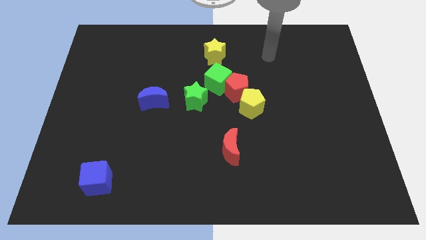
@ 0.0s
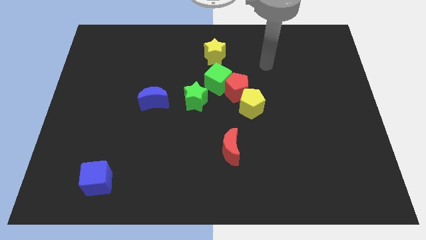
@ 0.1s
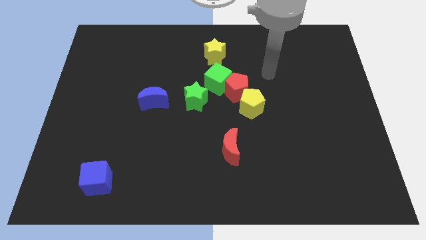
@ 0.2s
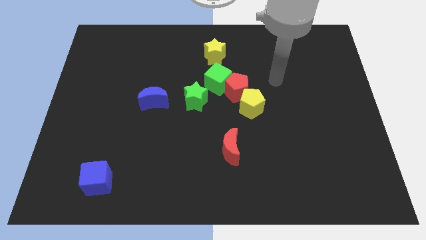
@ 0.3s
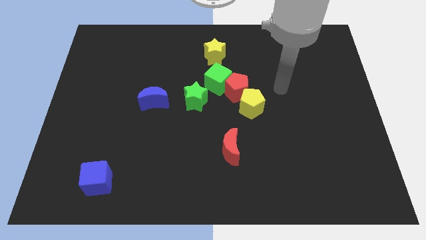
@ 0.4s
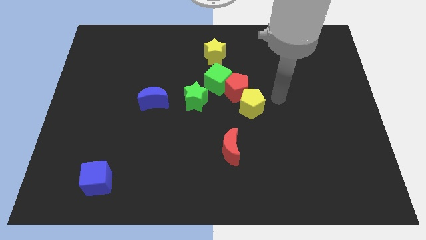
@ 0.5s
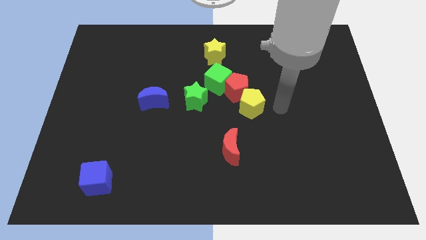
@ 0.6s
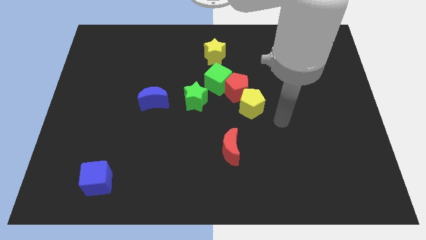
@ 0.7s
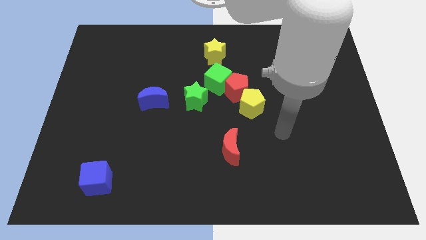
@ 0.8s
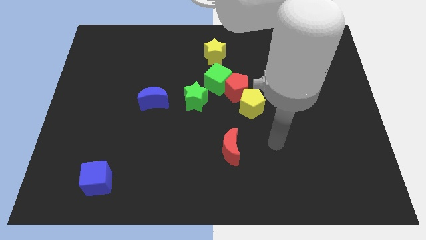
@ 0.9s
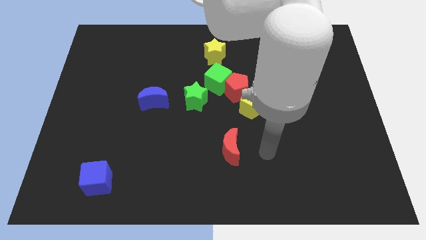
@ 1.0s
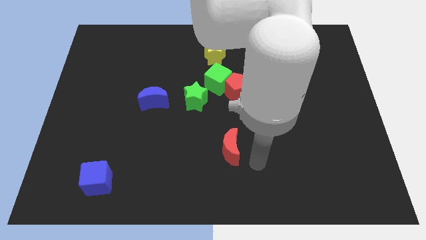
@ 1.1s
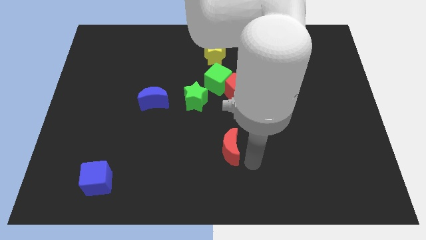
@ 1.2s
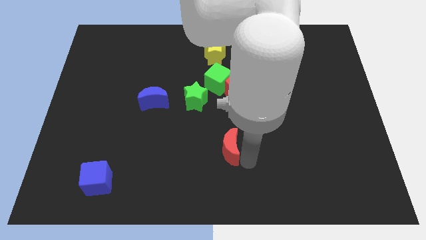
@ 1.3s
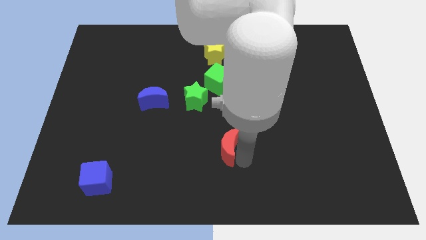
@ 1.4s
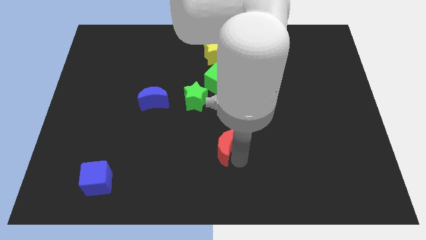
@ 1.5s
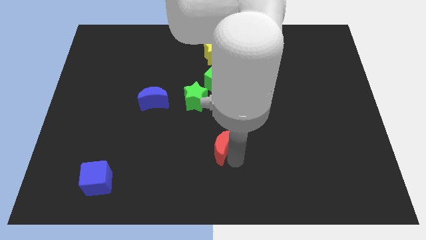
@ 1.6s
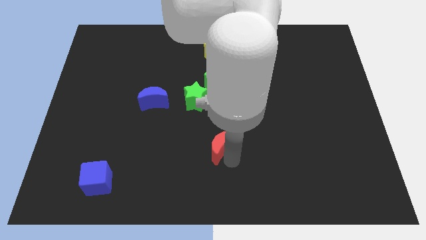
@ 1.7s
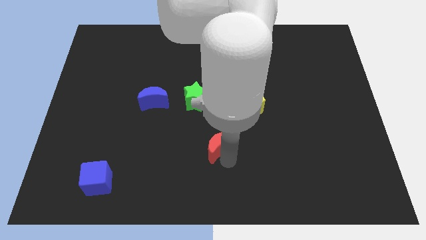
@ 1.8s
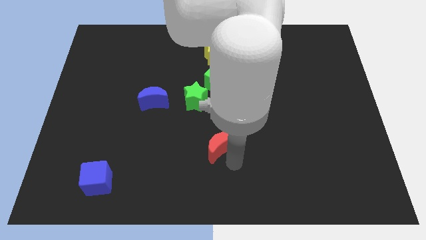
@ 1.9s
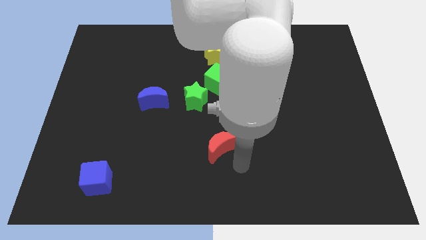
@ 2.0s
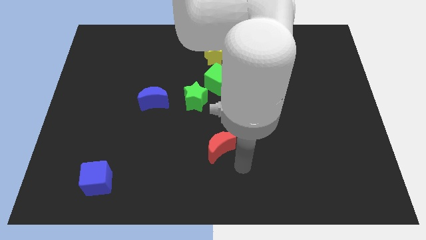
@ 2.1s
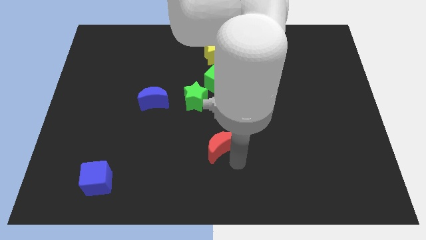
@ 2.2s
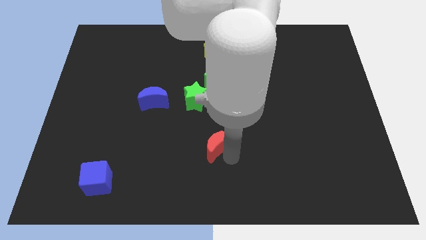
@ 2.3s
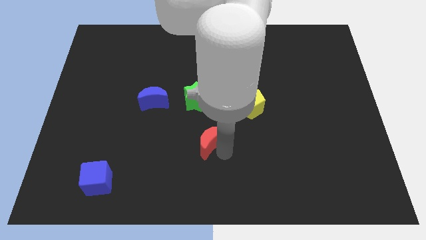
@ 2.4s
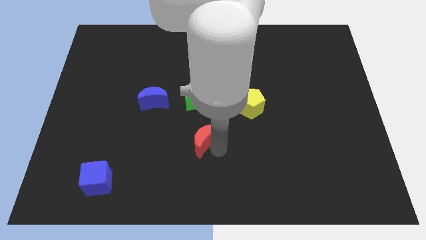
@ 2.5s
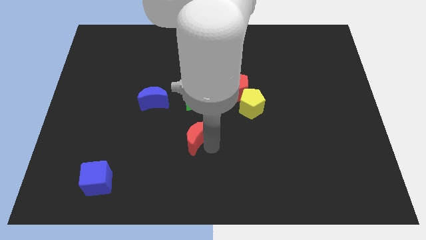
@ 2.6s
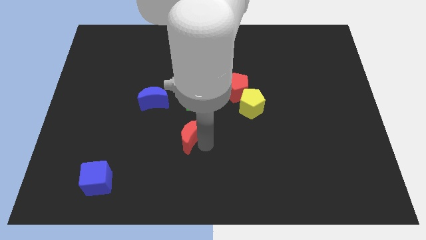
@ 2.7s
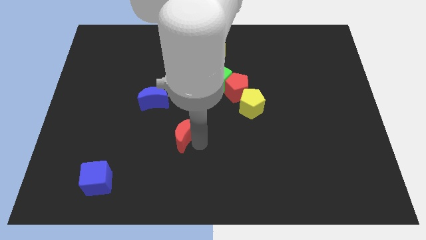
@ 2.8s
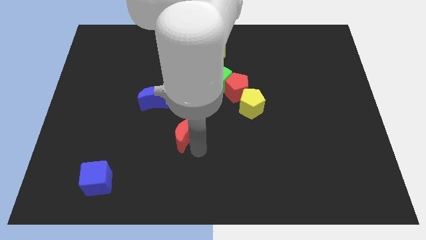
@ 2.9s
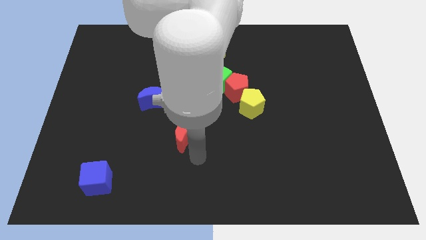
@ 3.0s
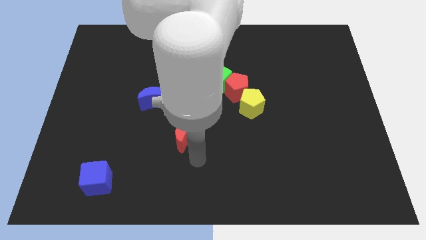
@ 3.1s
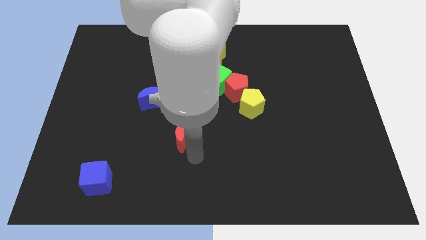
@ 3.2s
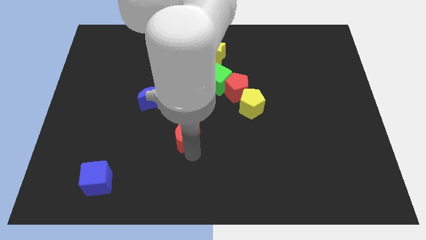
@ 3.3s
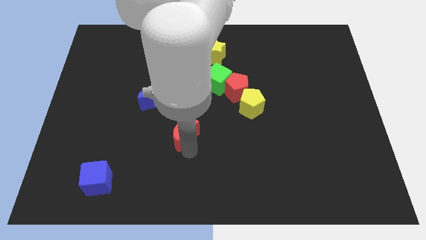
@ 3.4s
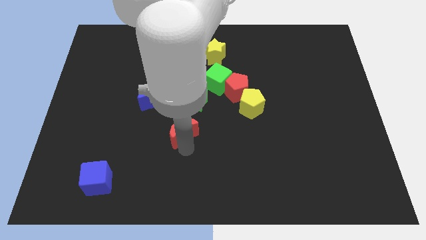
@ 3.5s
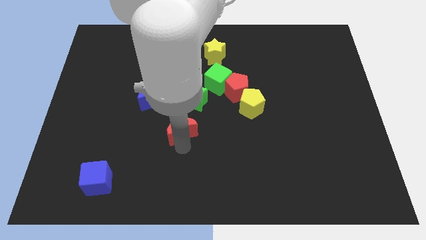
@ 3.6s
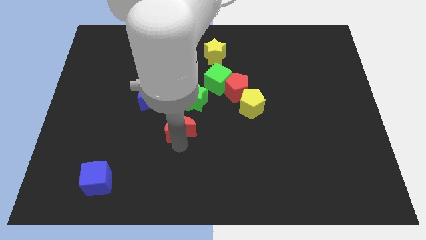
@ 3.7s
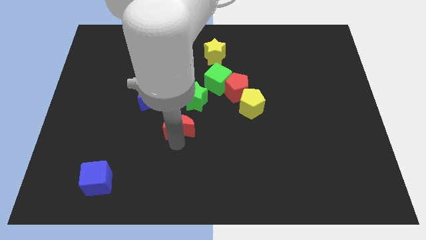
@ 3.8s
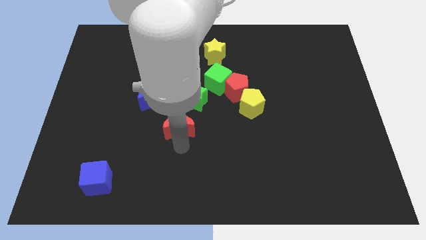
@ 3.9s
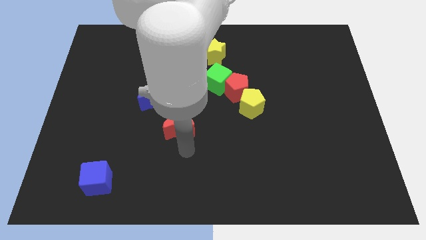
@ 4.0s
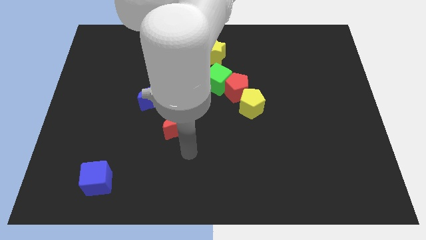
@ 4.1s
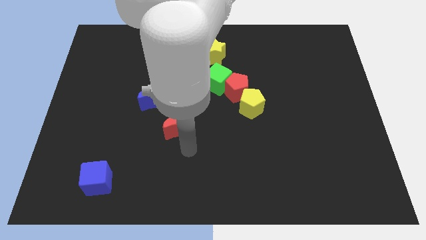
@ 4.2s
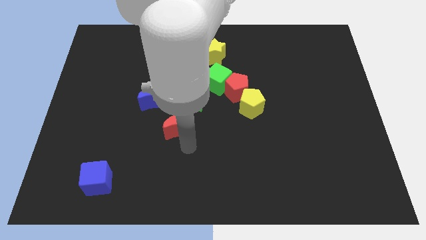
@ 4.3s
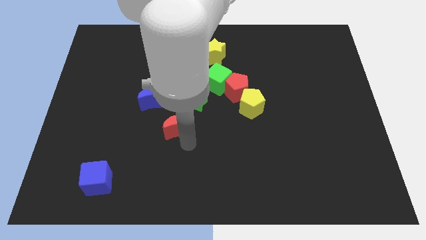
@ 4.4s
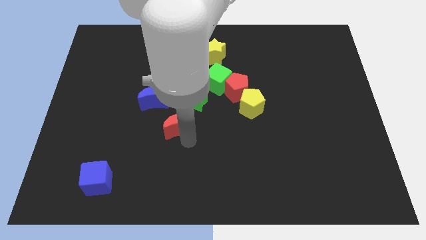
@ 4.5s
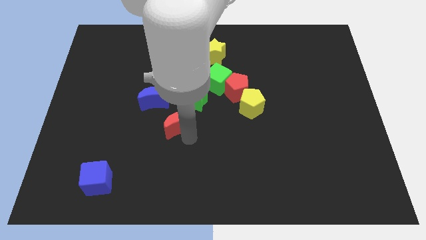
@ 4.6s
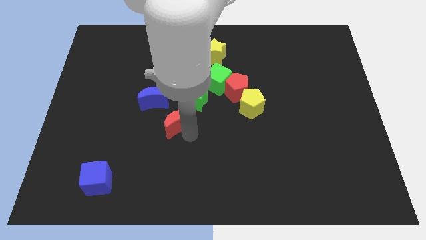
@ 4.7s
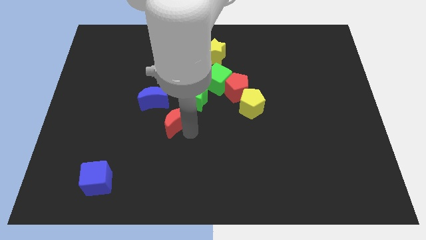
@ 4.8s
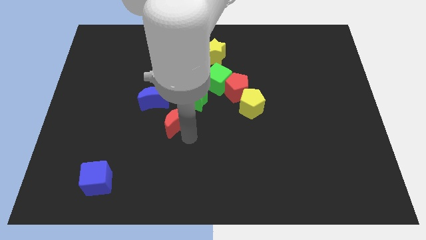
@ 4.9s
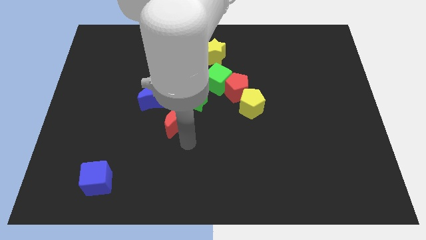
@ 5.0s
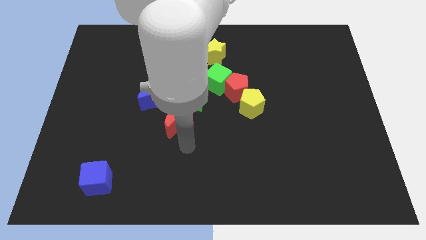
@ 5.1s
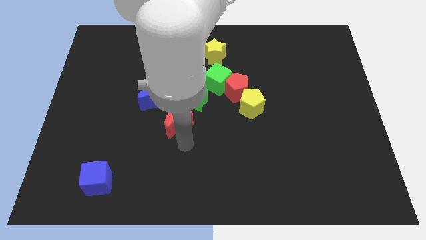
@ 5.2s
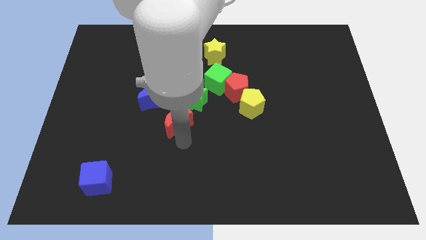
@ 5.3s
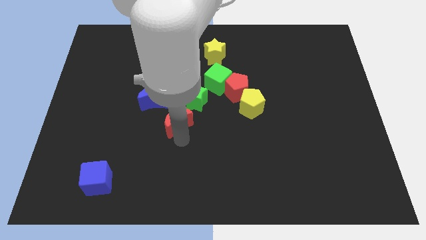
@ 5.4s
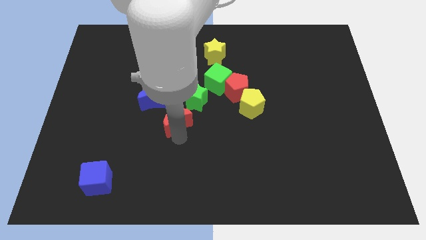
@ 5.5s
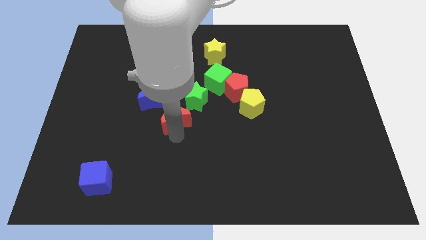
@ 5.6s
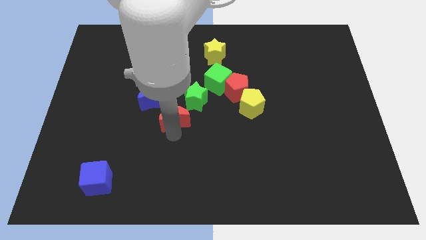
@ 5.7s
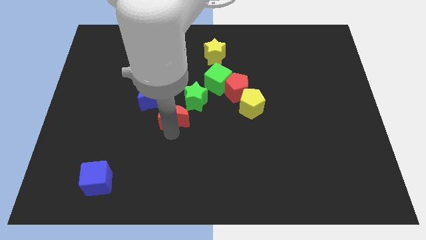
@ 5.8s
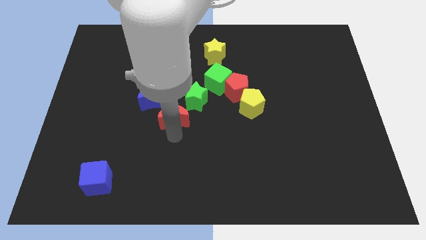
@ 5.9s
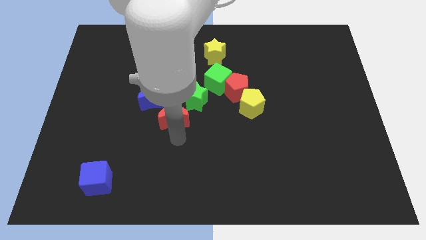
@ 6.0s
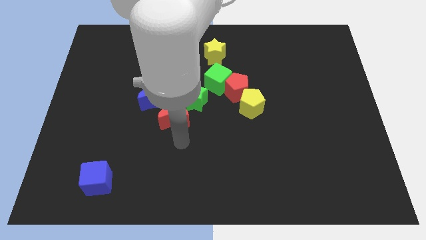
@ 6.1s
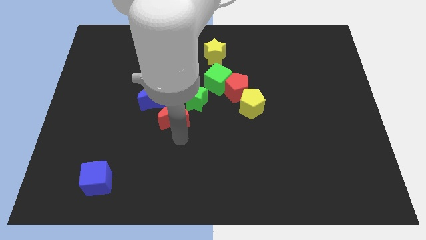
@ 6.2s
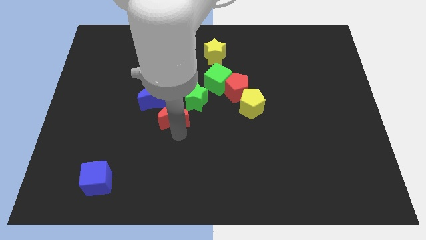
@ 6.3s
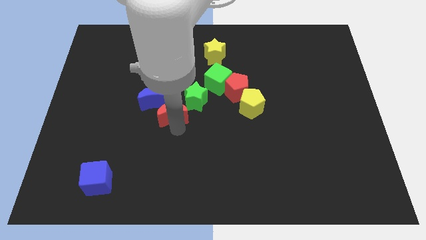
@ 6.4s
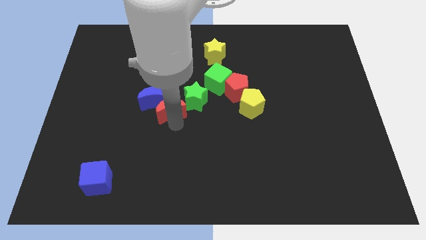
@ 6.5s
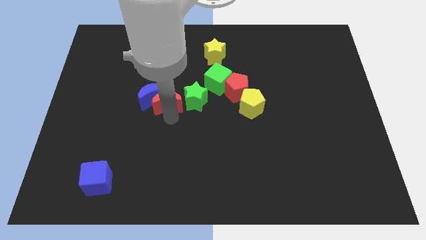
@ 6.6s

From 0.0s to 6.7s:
slide the red moon to the top right side of the blue moon
